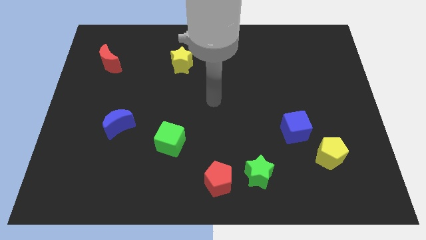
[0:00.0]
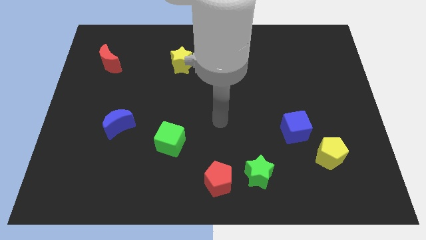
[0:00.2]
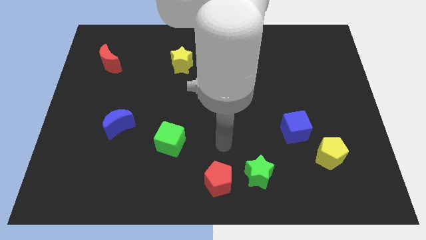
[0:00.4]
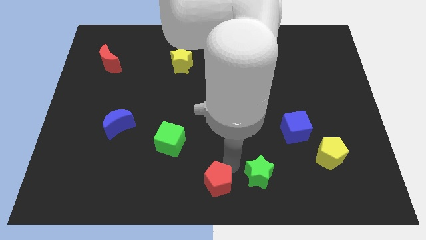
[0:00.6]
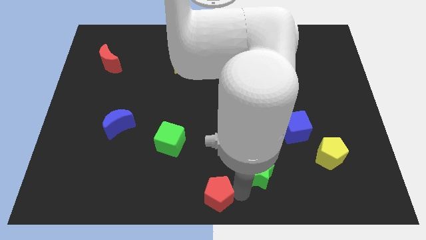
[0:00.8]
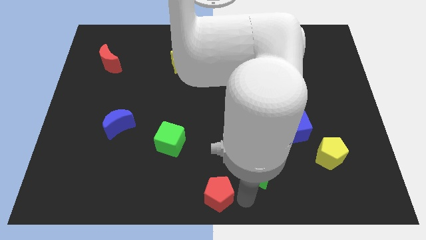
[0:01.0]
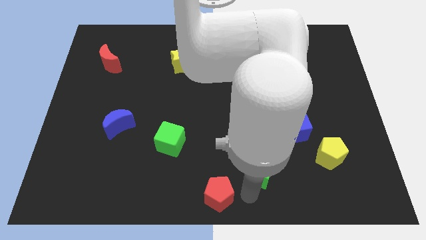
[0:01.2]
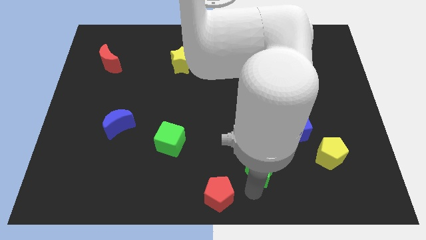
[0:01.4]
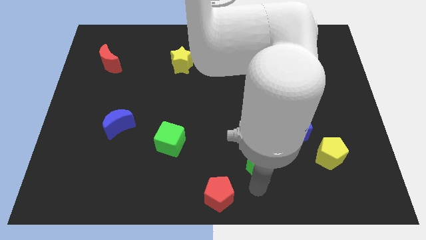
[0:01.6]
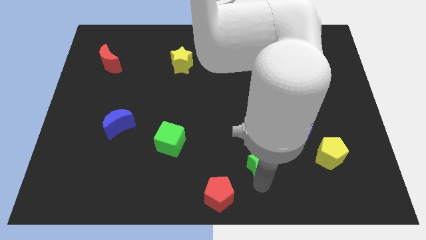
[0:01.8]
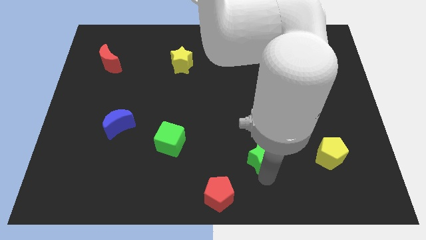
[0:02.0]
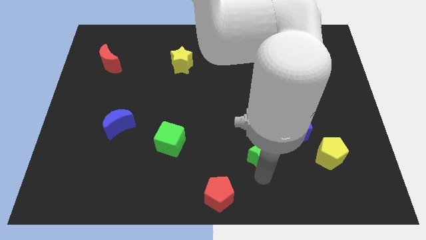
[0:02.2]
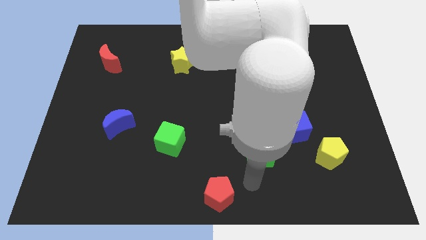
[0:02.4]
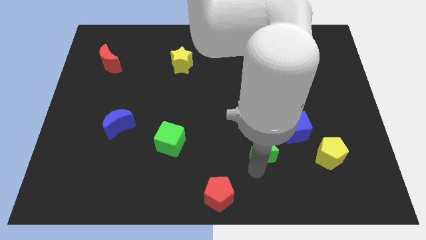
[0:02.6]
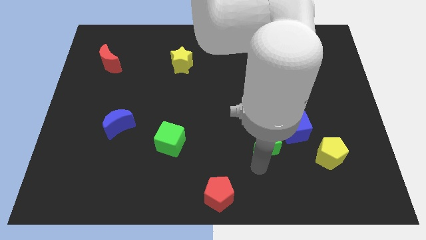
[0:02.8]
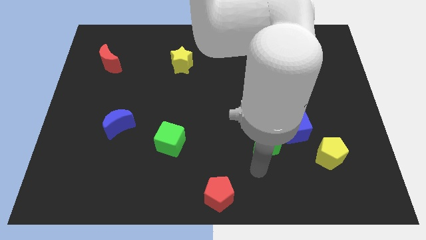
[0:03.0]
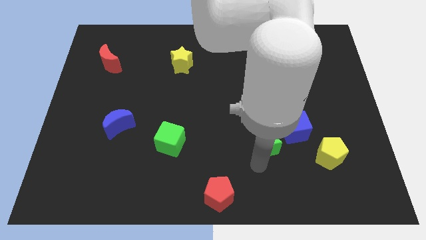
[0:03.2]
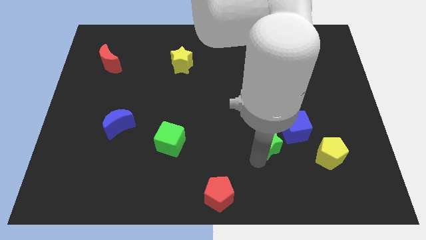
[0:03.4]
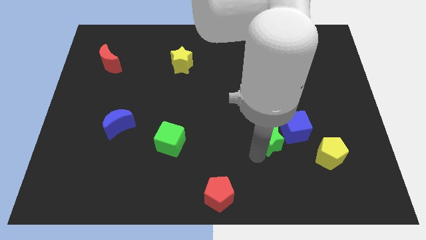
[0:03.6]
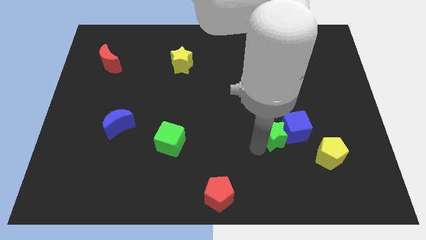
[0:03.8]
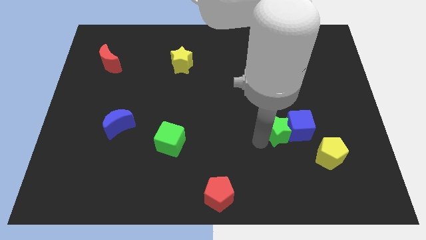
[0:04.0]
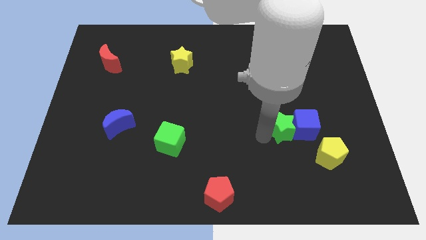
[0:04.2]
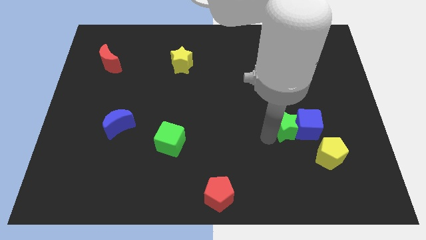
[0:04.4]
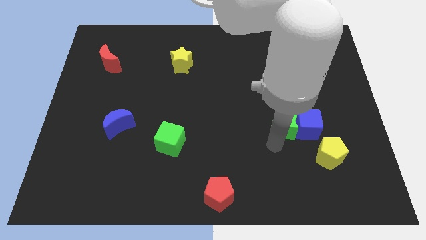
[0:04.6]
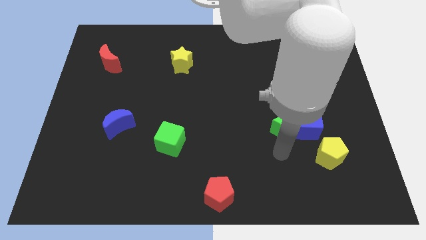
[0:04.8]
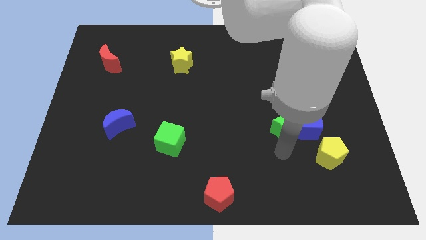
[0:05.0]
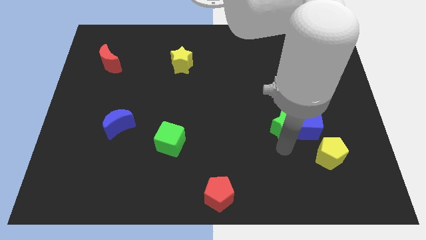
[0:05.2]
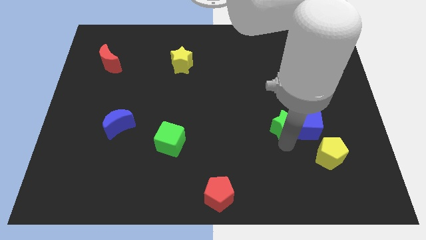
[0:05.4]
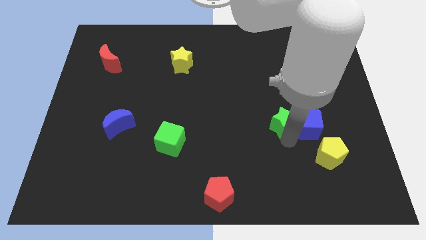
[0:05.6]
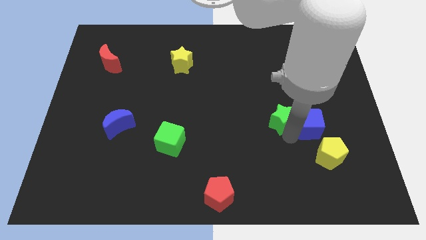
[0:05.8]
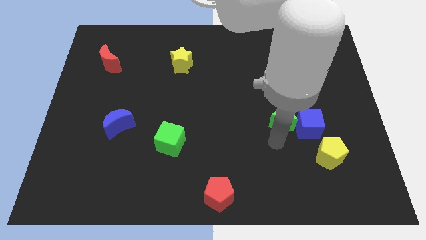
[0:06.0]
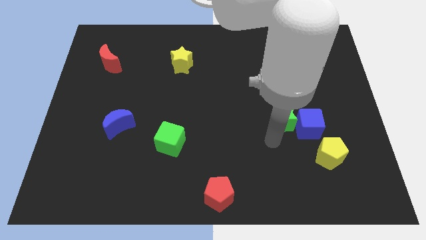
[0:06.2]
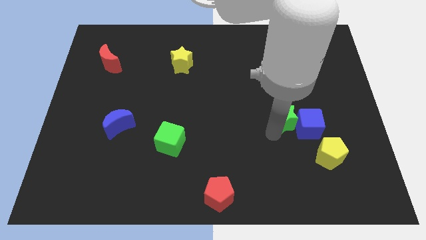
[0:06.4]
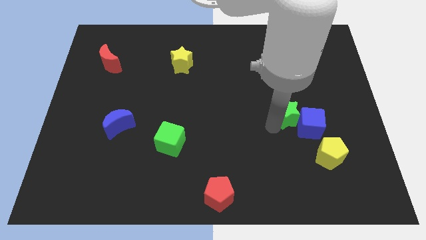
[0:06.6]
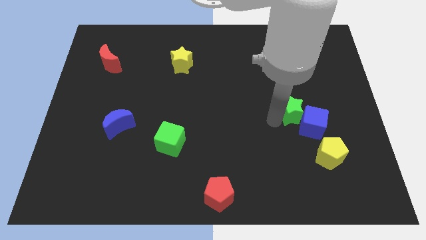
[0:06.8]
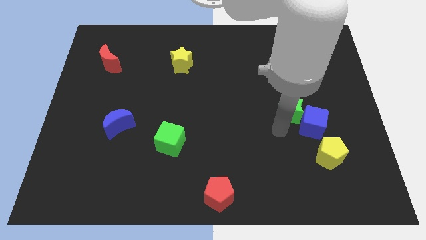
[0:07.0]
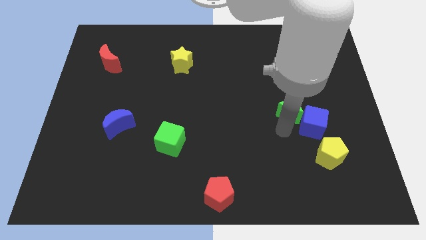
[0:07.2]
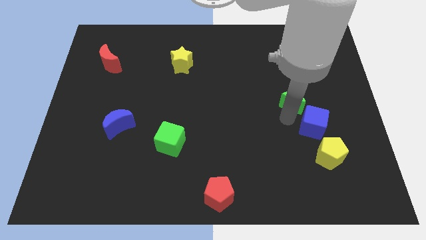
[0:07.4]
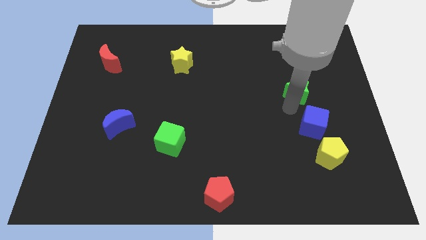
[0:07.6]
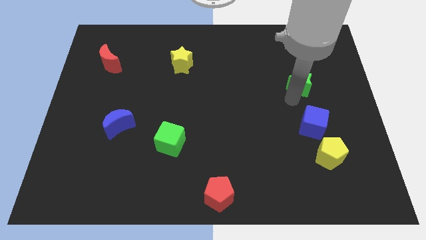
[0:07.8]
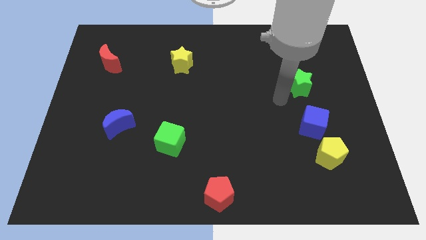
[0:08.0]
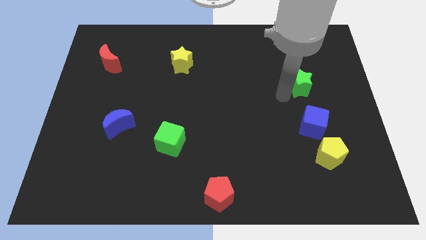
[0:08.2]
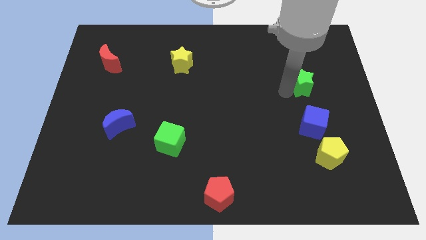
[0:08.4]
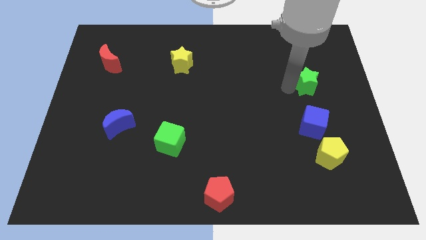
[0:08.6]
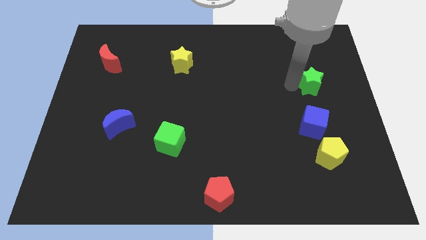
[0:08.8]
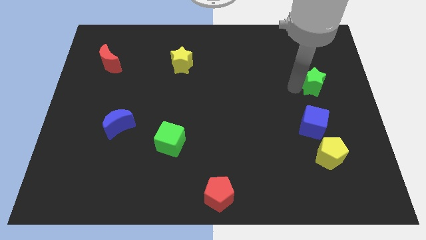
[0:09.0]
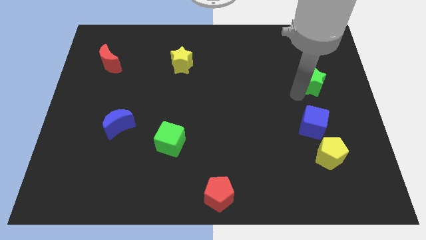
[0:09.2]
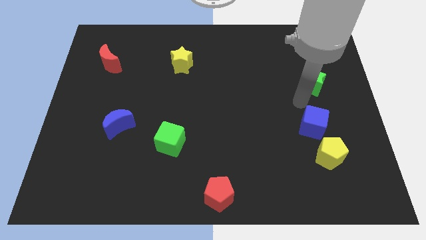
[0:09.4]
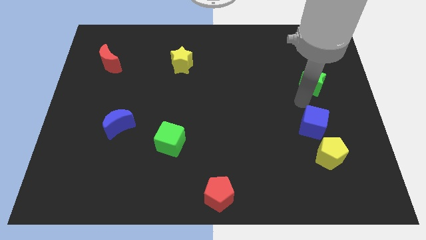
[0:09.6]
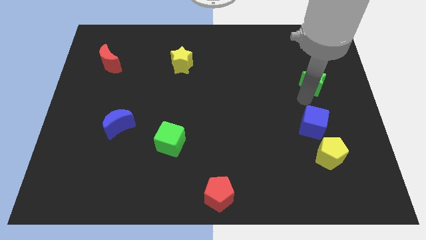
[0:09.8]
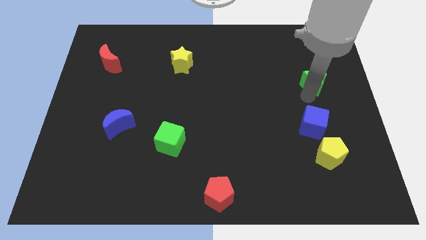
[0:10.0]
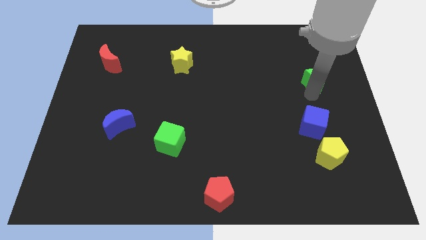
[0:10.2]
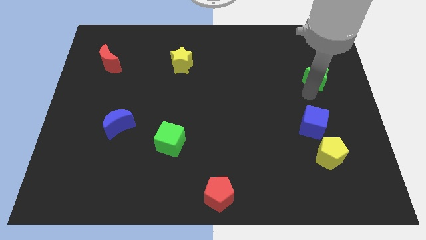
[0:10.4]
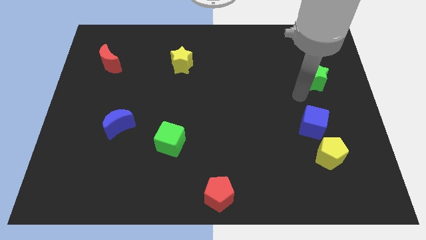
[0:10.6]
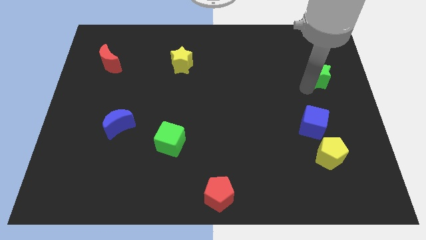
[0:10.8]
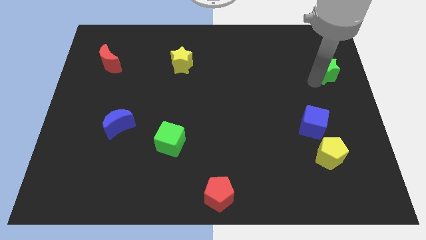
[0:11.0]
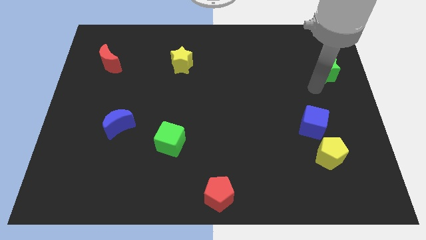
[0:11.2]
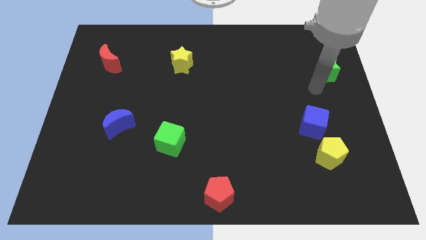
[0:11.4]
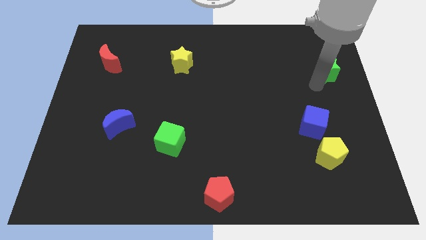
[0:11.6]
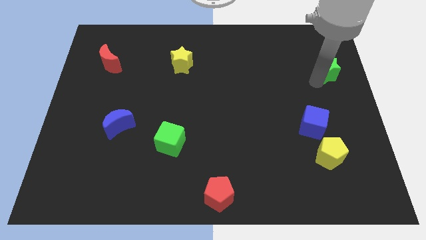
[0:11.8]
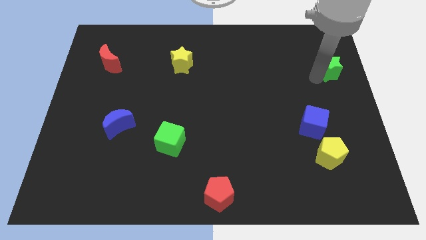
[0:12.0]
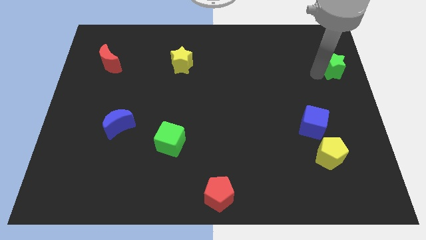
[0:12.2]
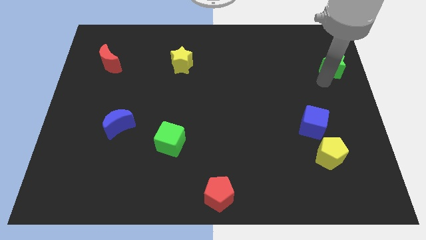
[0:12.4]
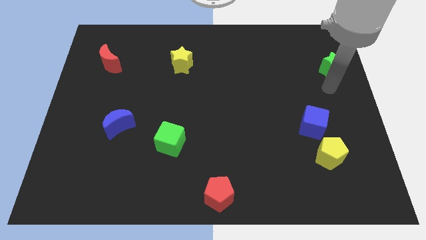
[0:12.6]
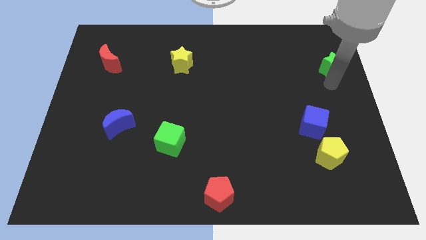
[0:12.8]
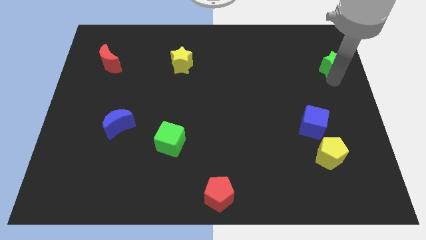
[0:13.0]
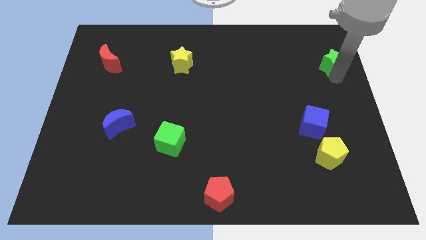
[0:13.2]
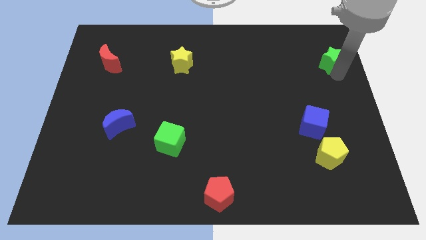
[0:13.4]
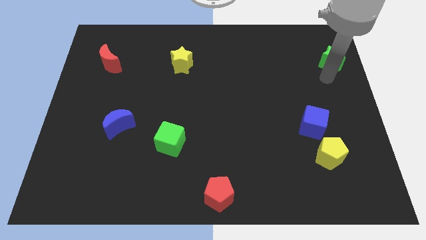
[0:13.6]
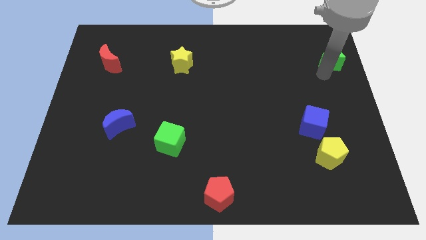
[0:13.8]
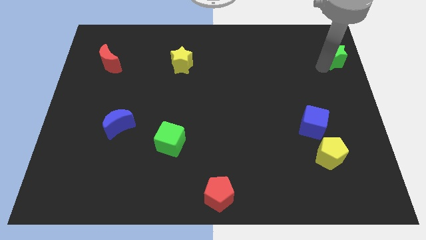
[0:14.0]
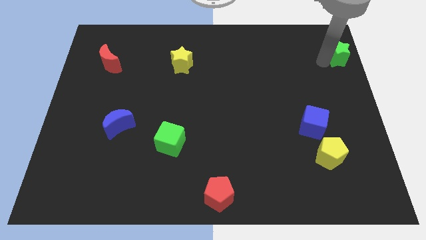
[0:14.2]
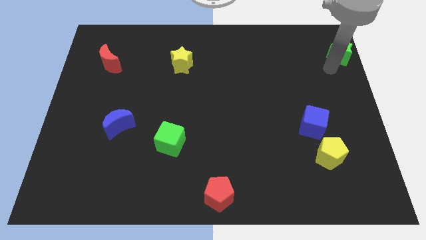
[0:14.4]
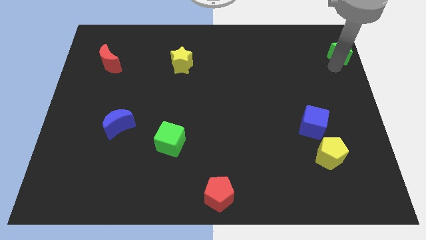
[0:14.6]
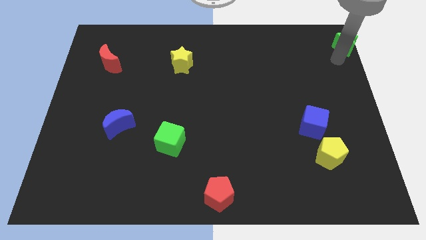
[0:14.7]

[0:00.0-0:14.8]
put the green star to the upper right corner
